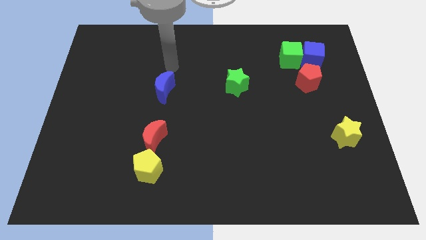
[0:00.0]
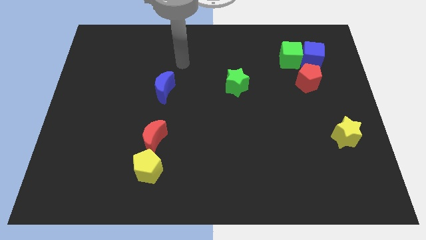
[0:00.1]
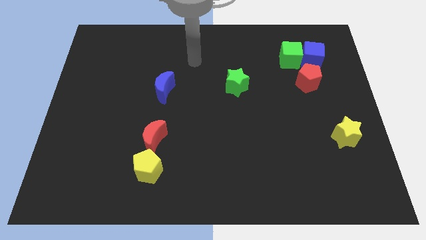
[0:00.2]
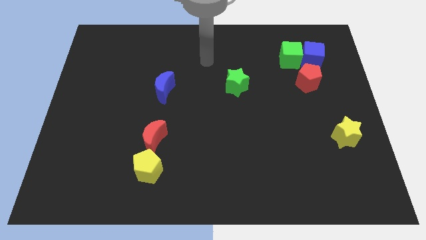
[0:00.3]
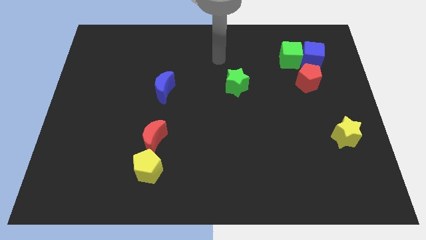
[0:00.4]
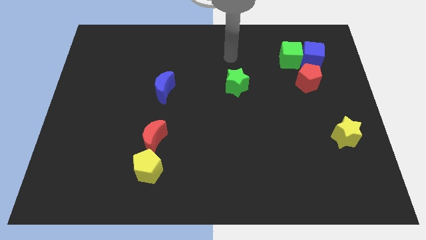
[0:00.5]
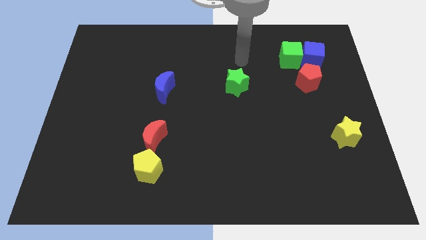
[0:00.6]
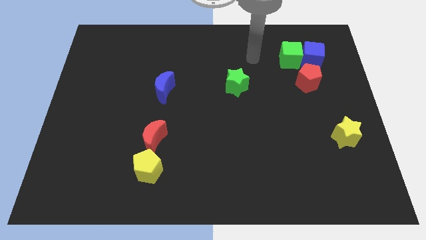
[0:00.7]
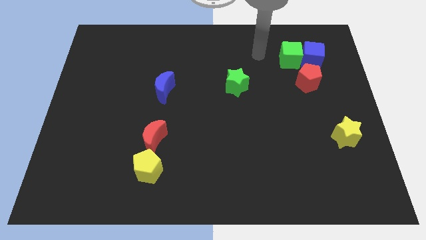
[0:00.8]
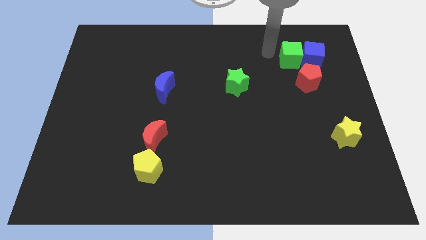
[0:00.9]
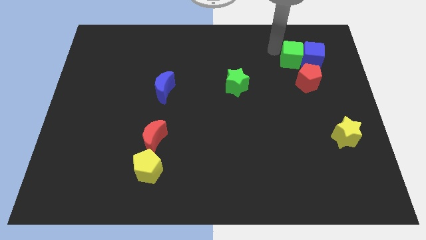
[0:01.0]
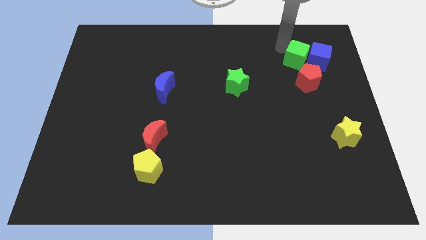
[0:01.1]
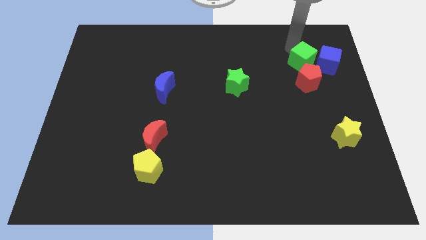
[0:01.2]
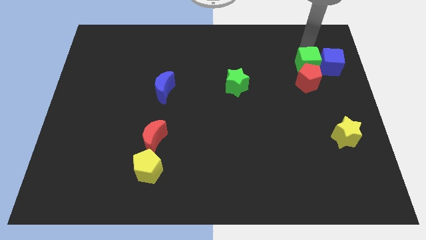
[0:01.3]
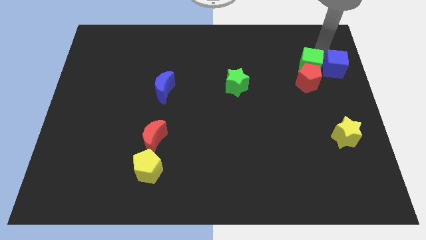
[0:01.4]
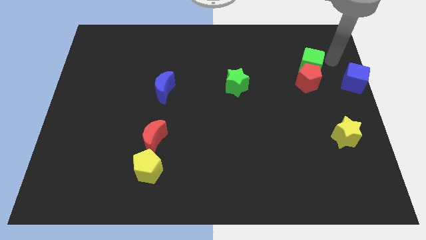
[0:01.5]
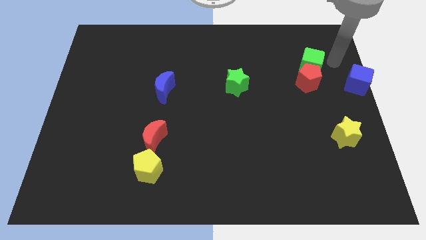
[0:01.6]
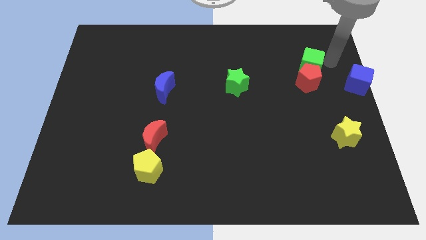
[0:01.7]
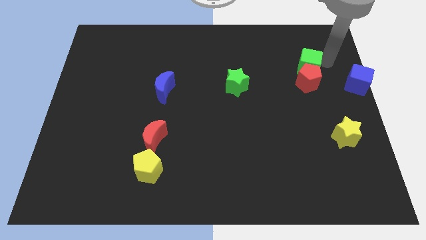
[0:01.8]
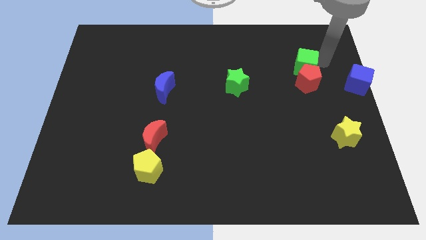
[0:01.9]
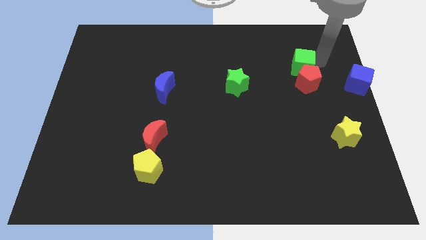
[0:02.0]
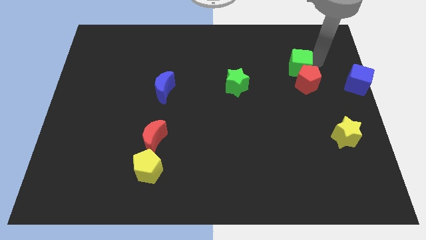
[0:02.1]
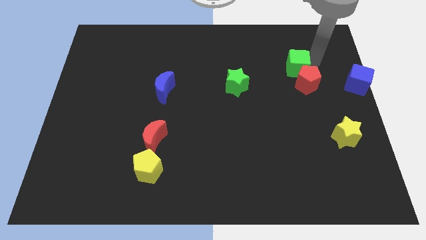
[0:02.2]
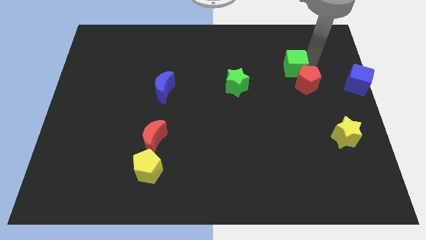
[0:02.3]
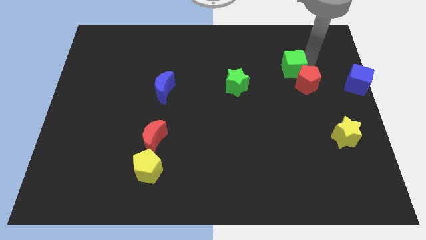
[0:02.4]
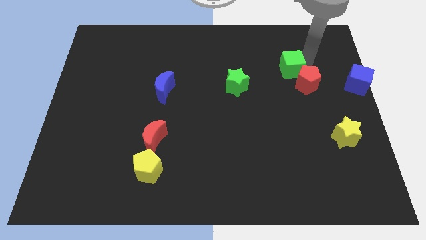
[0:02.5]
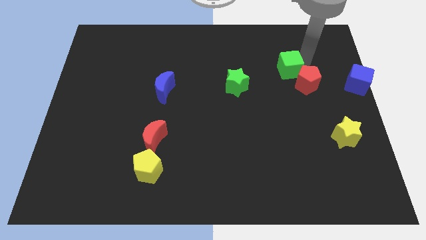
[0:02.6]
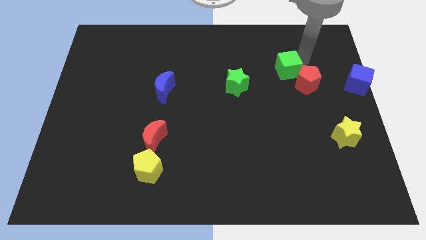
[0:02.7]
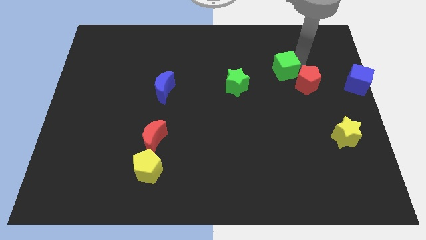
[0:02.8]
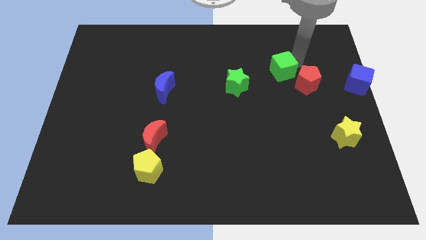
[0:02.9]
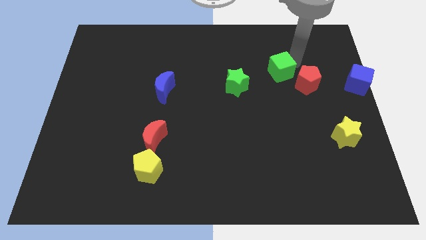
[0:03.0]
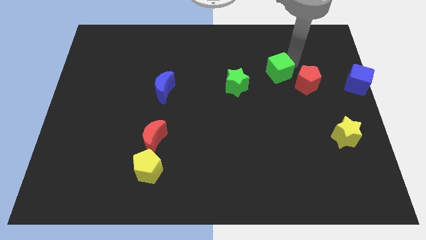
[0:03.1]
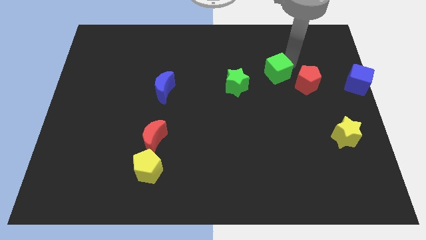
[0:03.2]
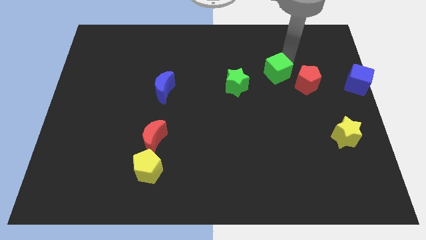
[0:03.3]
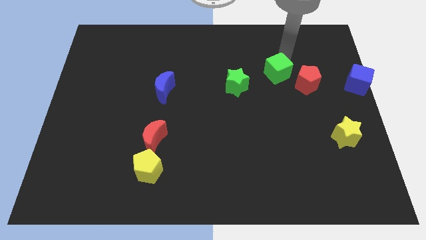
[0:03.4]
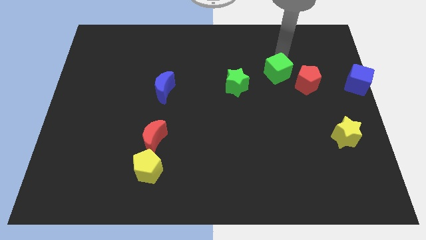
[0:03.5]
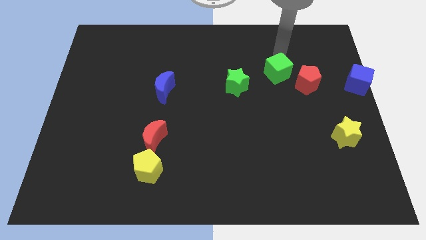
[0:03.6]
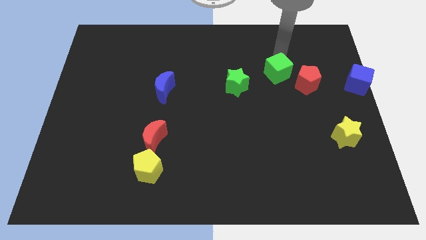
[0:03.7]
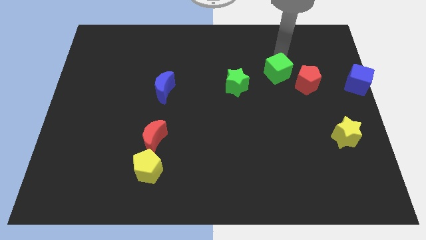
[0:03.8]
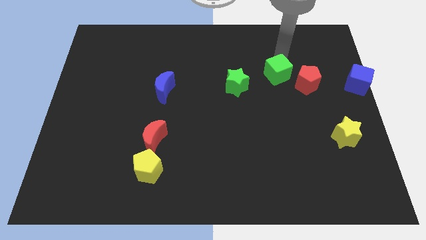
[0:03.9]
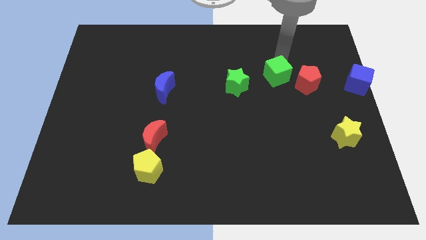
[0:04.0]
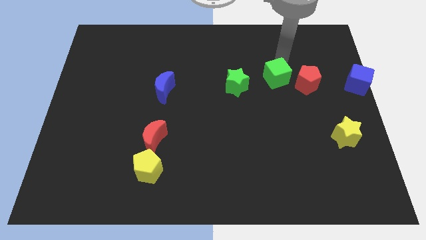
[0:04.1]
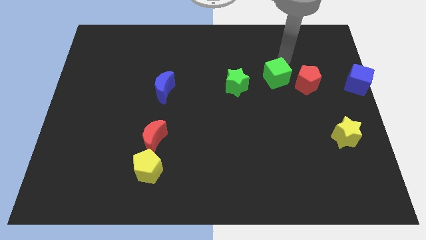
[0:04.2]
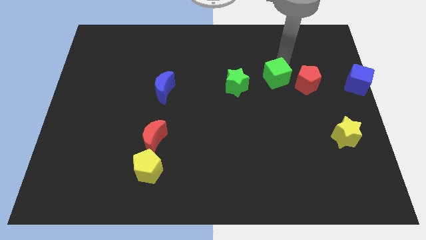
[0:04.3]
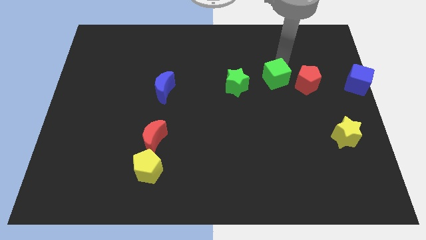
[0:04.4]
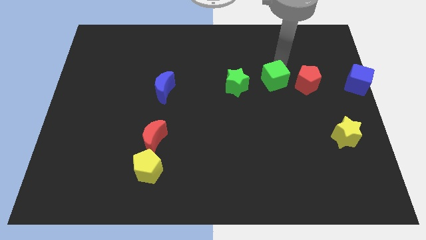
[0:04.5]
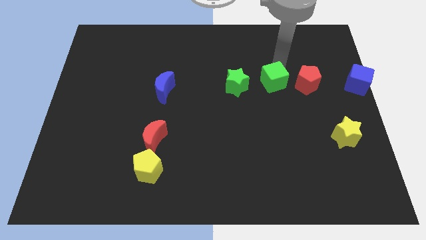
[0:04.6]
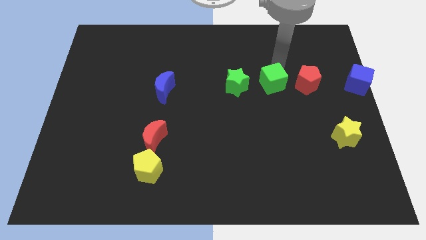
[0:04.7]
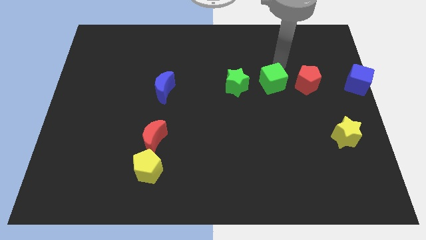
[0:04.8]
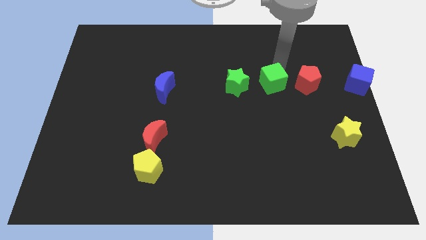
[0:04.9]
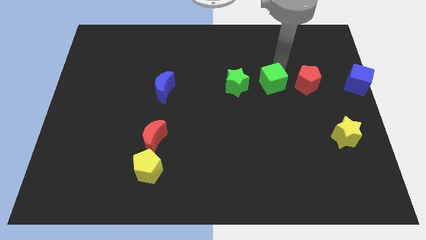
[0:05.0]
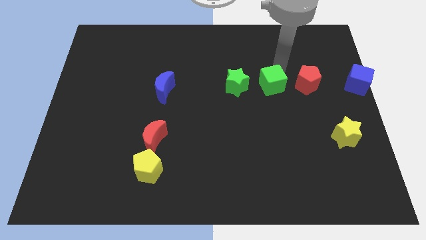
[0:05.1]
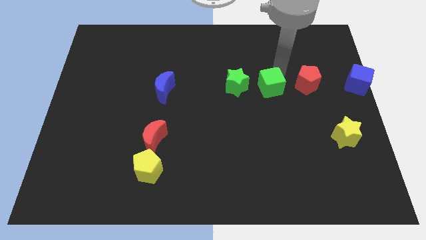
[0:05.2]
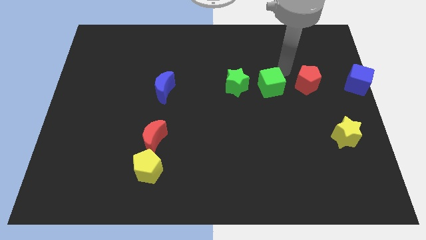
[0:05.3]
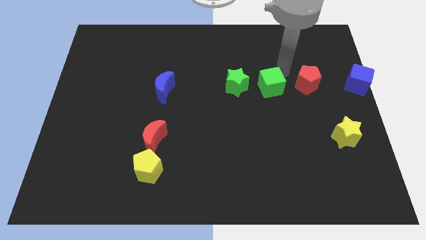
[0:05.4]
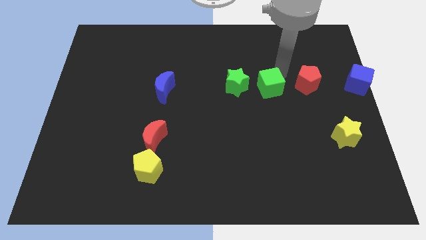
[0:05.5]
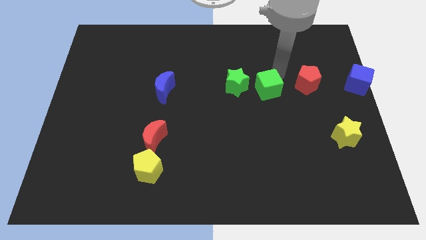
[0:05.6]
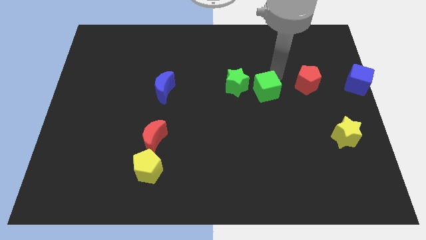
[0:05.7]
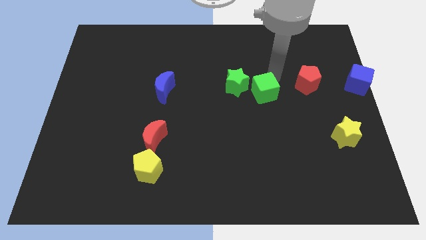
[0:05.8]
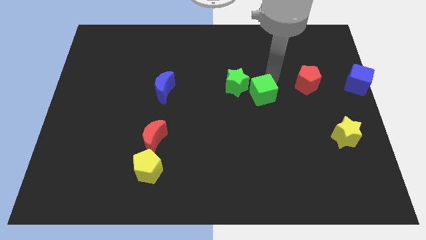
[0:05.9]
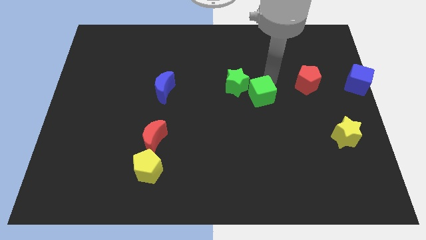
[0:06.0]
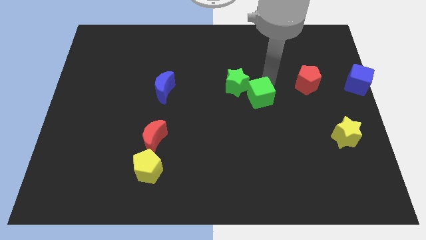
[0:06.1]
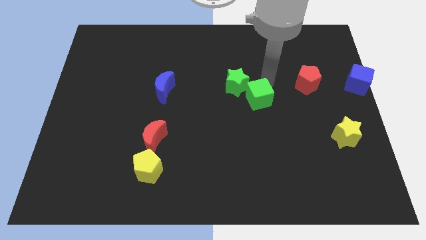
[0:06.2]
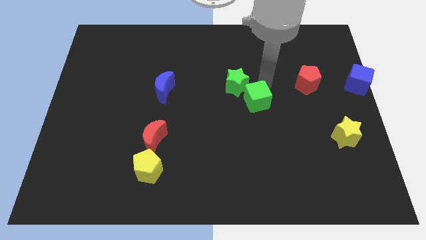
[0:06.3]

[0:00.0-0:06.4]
move the green cube below the green star

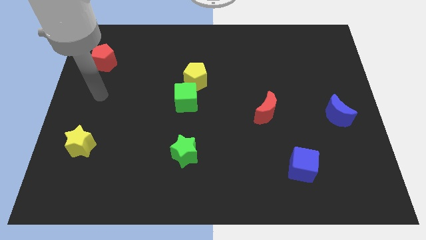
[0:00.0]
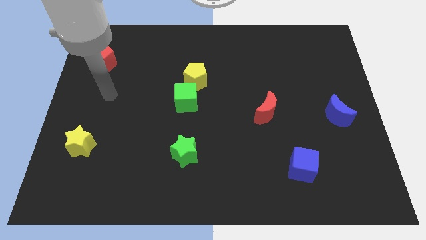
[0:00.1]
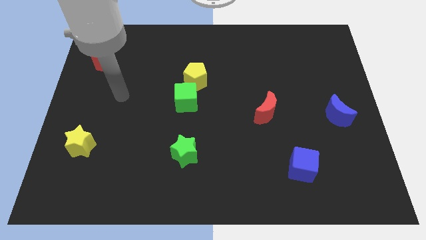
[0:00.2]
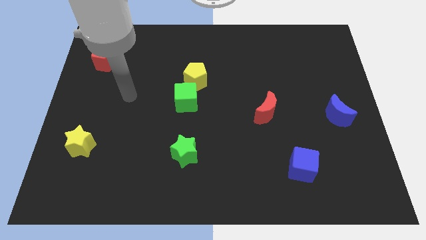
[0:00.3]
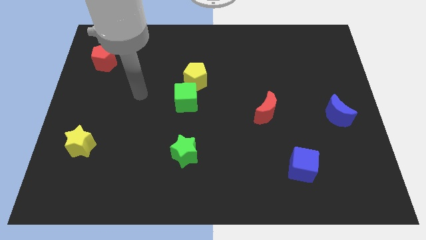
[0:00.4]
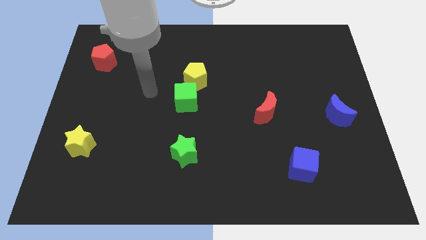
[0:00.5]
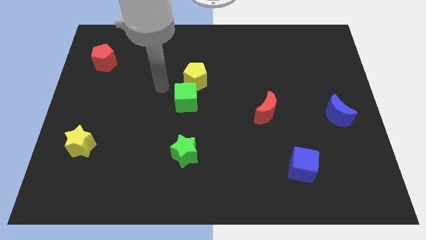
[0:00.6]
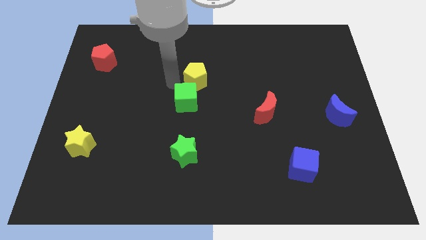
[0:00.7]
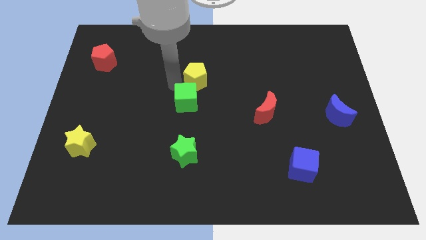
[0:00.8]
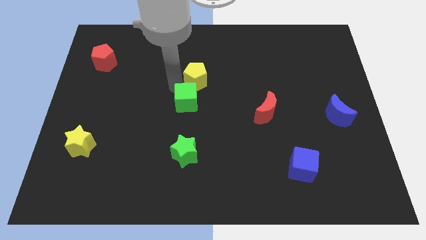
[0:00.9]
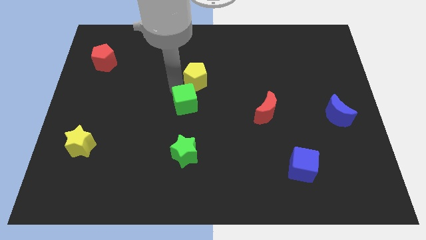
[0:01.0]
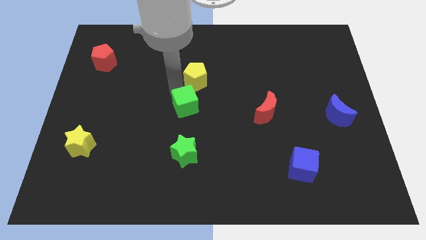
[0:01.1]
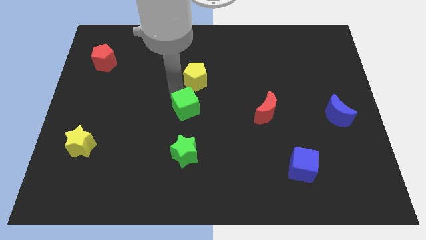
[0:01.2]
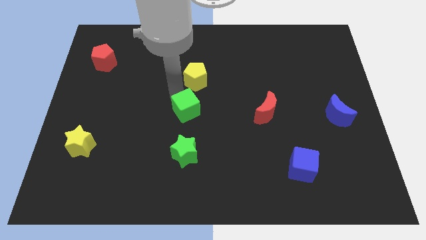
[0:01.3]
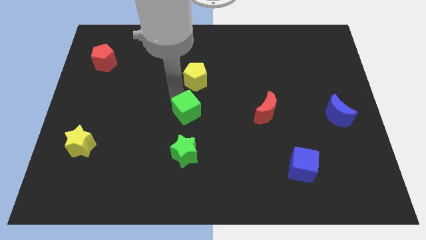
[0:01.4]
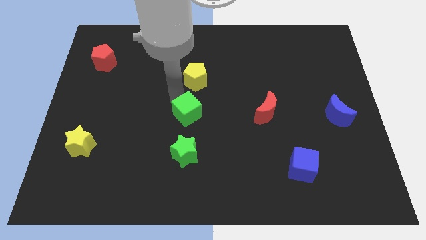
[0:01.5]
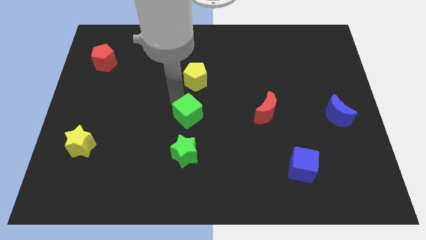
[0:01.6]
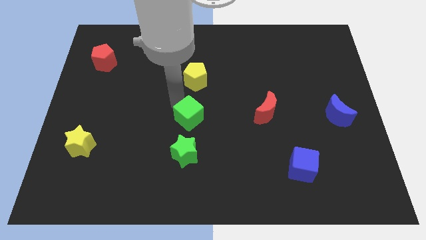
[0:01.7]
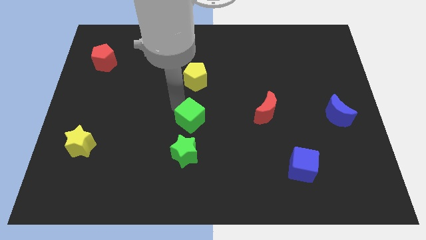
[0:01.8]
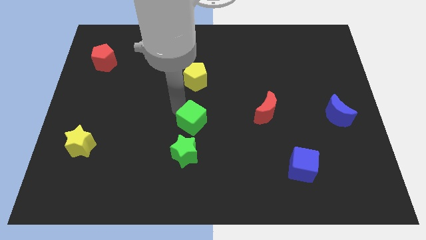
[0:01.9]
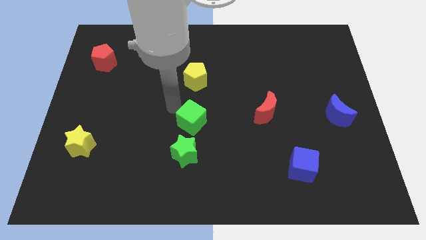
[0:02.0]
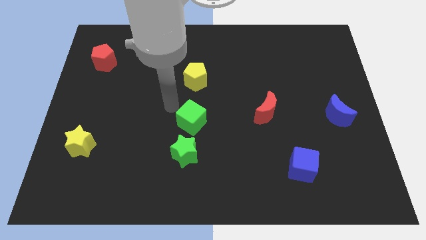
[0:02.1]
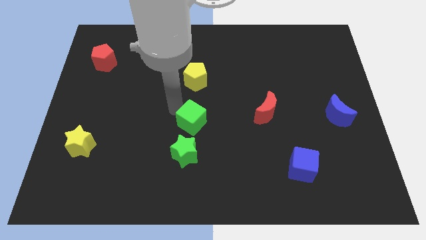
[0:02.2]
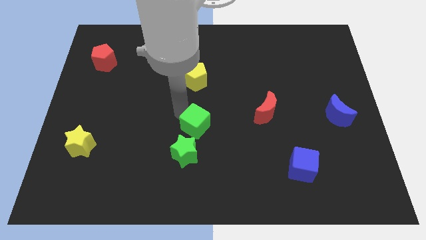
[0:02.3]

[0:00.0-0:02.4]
slide the green cube to the top right side of the green star
